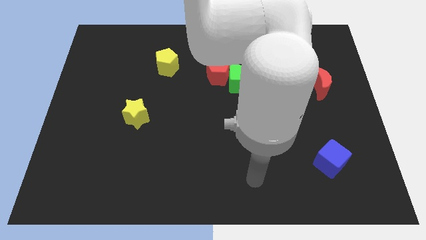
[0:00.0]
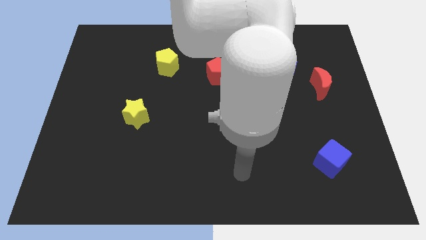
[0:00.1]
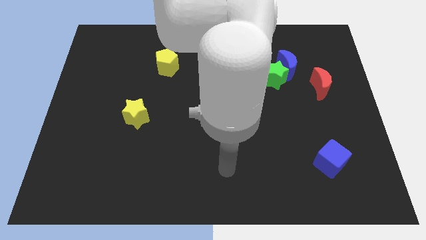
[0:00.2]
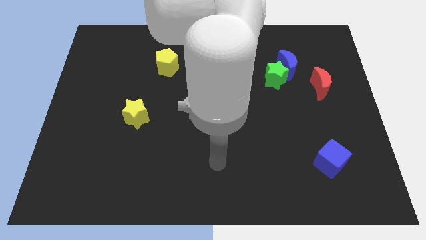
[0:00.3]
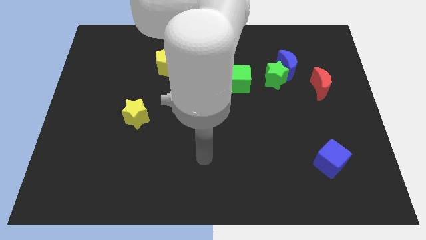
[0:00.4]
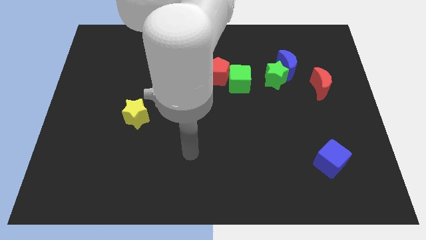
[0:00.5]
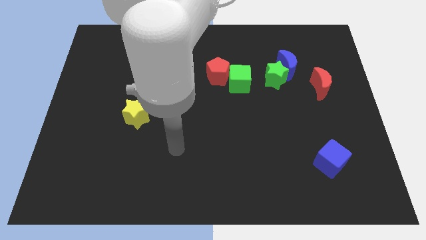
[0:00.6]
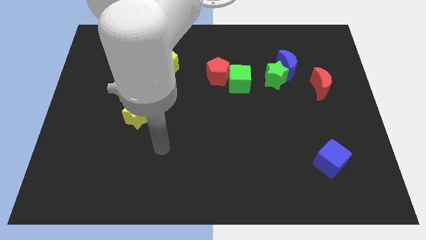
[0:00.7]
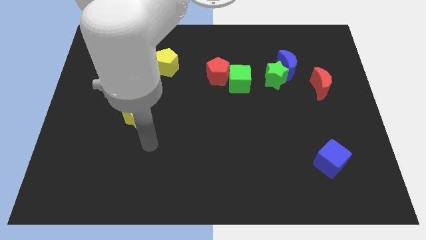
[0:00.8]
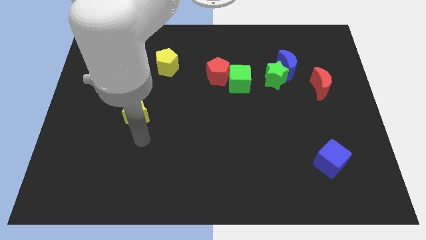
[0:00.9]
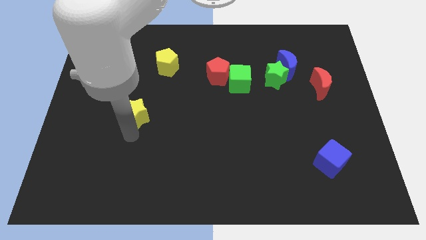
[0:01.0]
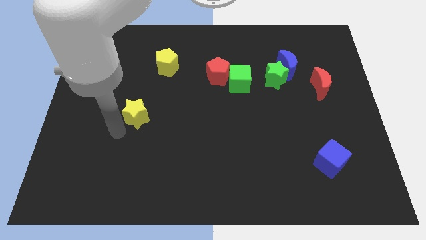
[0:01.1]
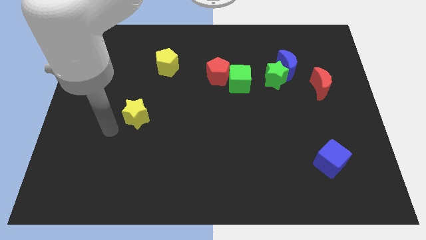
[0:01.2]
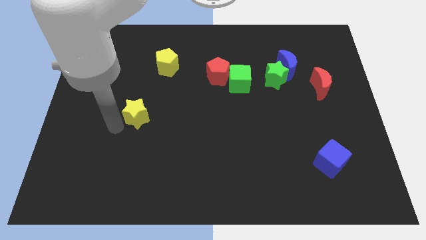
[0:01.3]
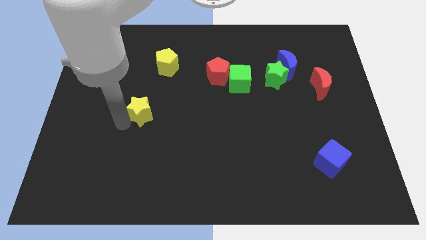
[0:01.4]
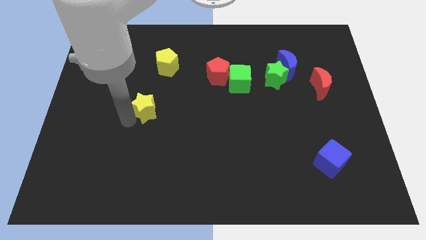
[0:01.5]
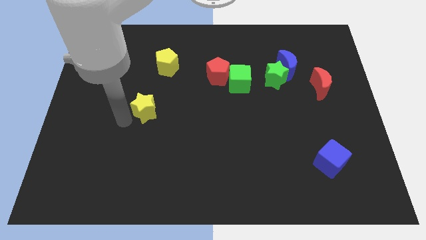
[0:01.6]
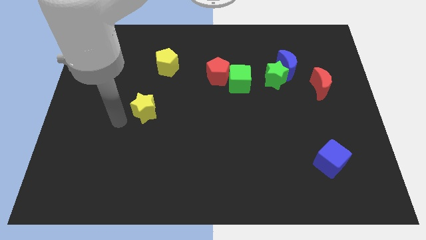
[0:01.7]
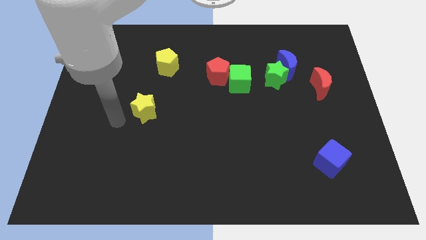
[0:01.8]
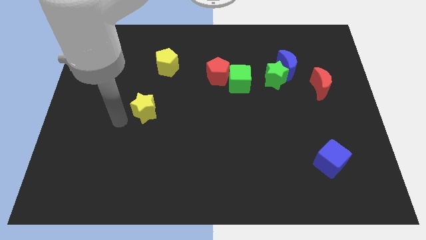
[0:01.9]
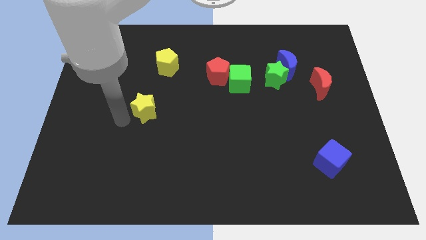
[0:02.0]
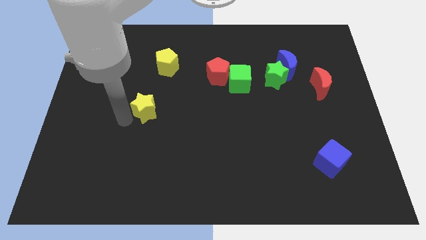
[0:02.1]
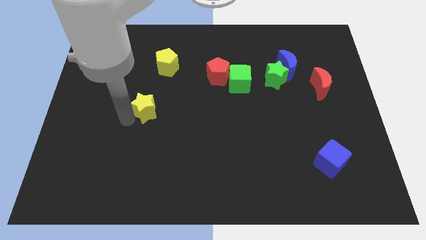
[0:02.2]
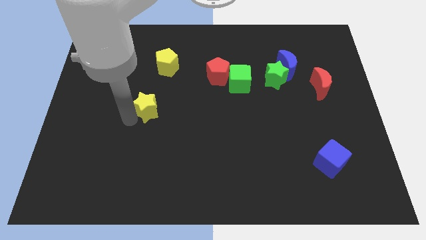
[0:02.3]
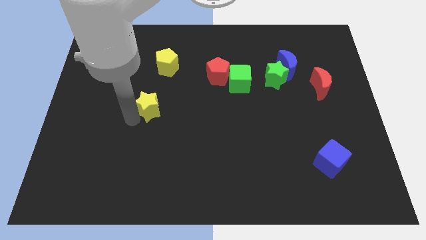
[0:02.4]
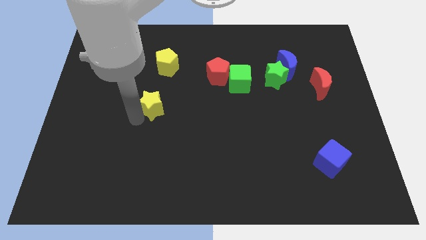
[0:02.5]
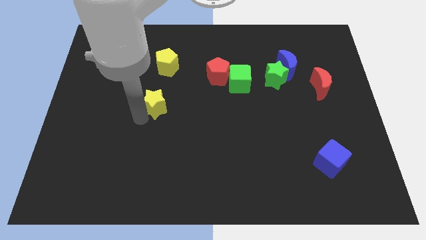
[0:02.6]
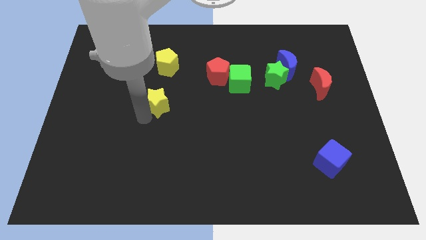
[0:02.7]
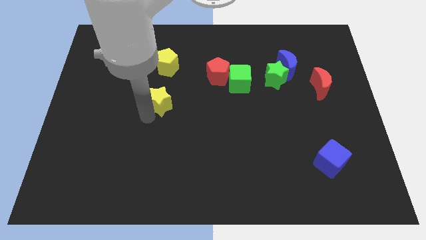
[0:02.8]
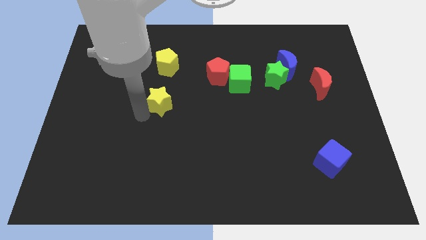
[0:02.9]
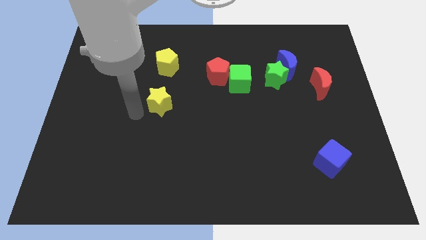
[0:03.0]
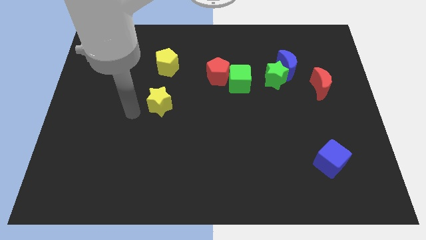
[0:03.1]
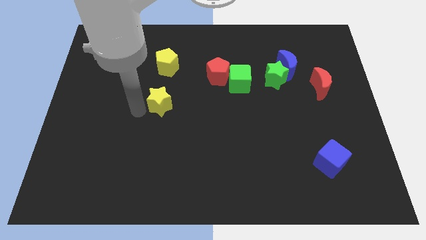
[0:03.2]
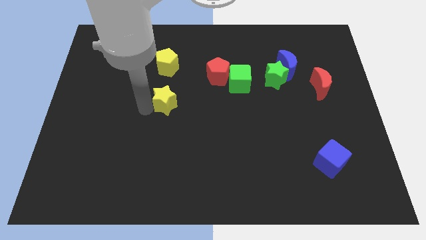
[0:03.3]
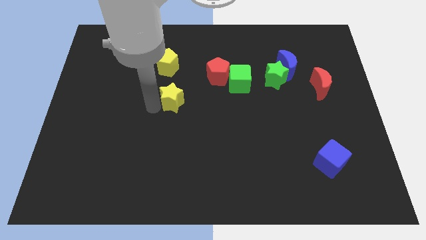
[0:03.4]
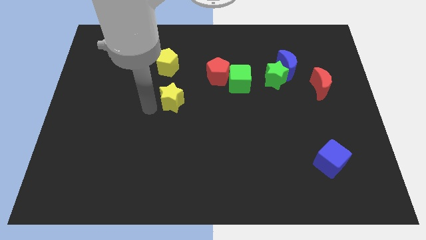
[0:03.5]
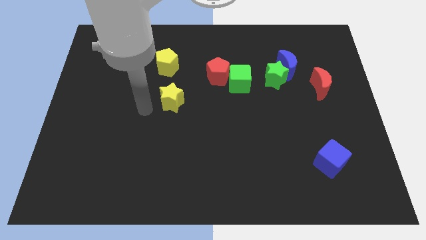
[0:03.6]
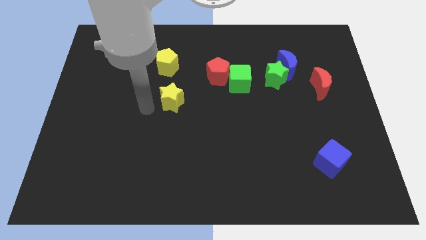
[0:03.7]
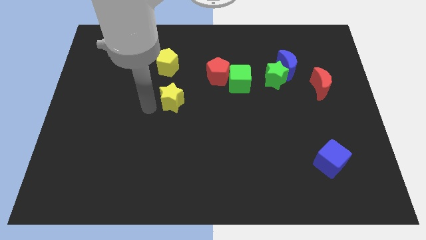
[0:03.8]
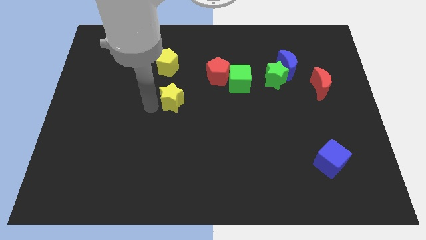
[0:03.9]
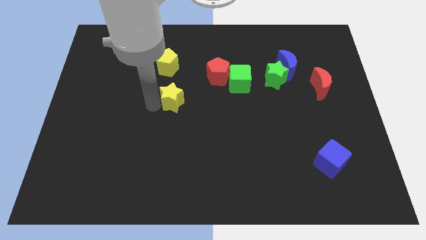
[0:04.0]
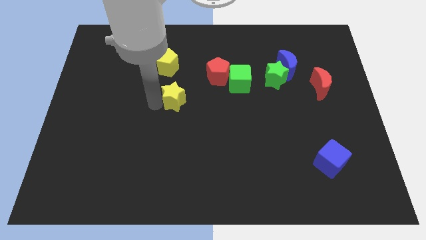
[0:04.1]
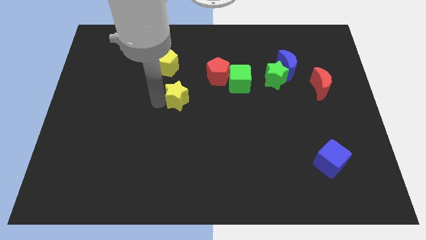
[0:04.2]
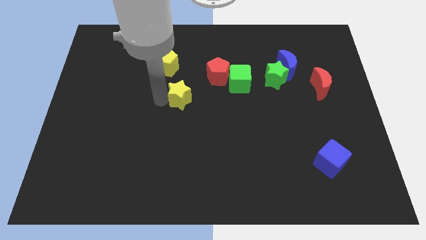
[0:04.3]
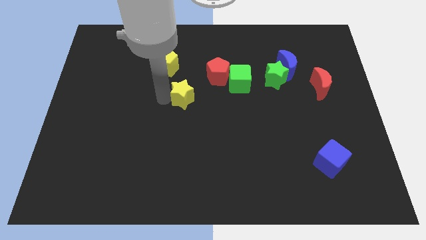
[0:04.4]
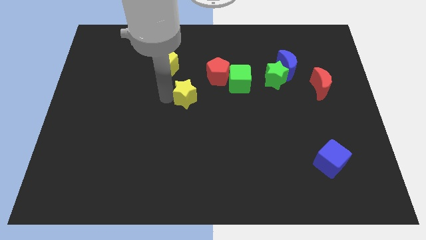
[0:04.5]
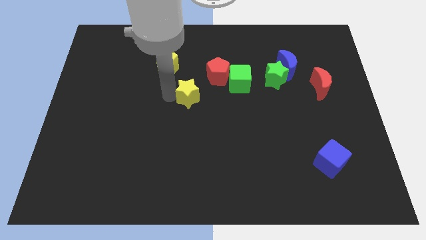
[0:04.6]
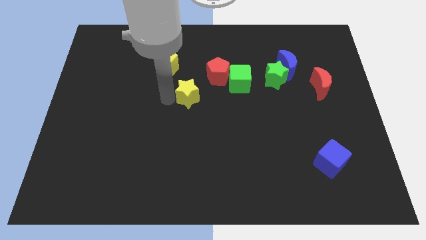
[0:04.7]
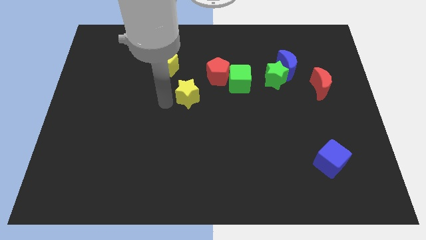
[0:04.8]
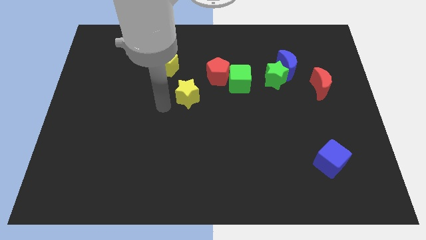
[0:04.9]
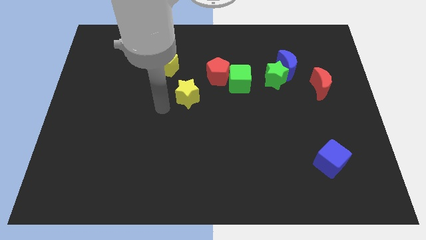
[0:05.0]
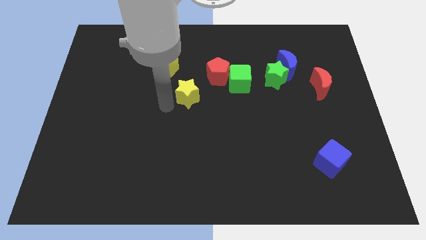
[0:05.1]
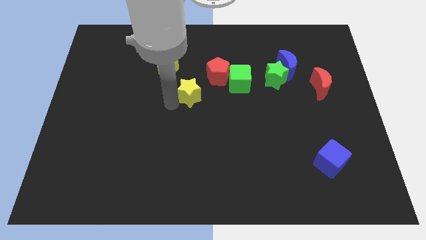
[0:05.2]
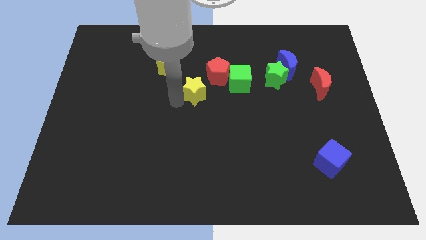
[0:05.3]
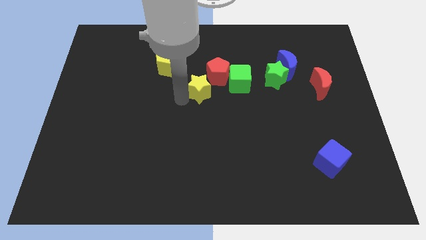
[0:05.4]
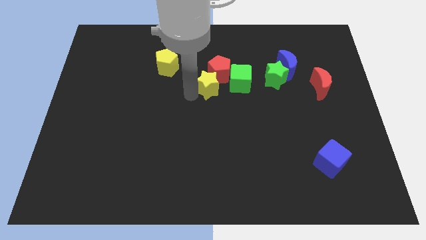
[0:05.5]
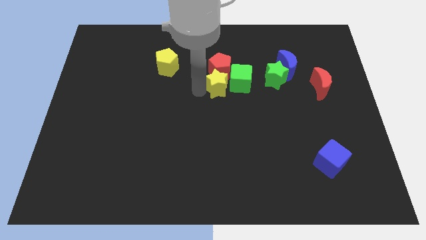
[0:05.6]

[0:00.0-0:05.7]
put the yellow star towards the green cube

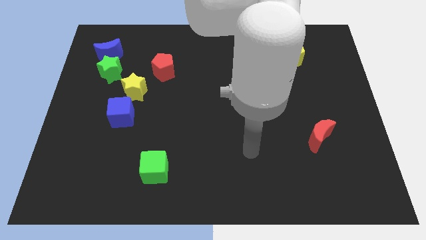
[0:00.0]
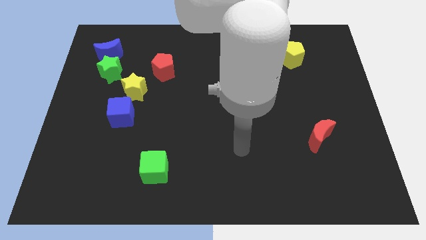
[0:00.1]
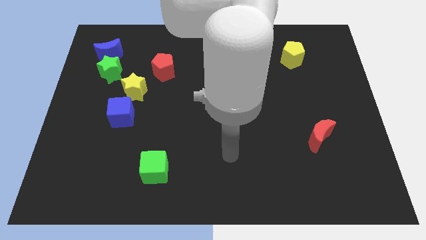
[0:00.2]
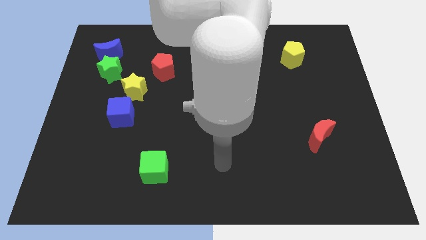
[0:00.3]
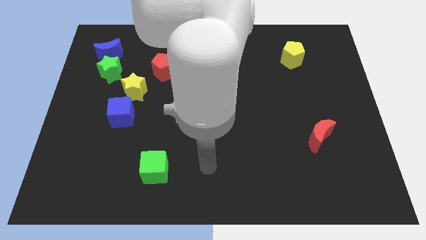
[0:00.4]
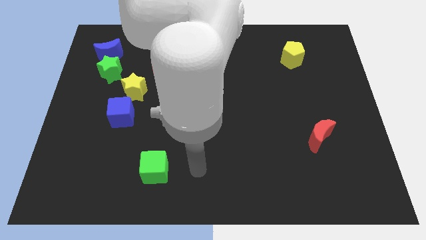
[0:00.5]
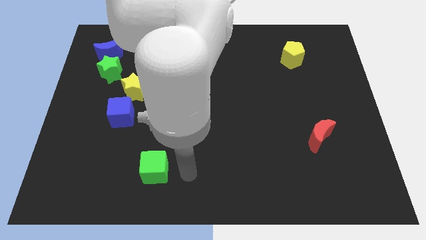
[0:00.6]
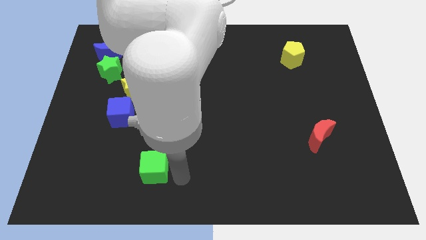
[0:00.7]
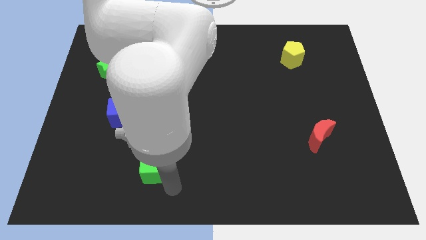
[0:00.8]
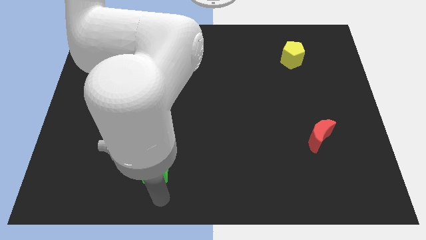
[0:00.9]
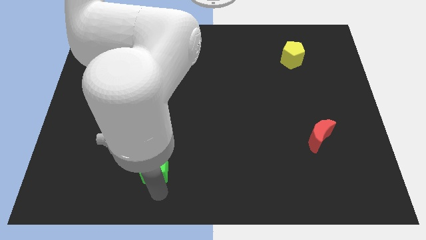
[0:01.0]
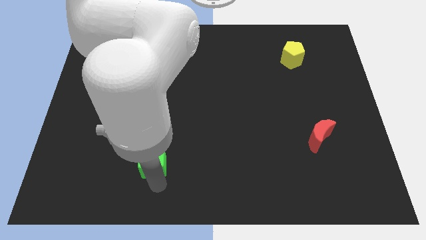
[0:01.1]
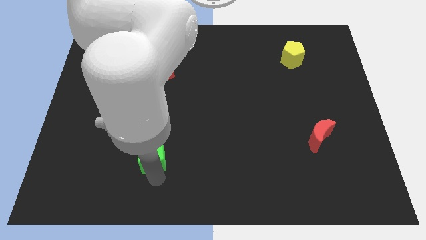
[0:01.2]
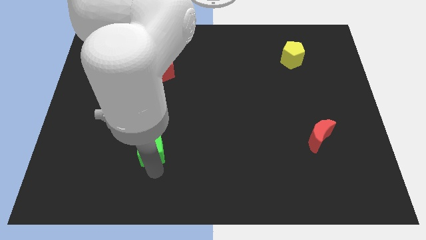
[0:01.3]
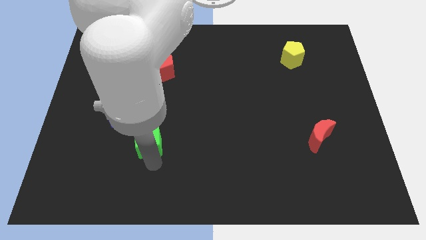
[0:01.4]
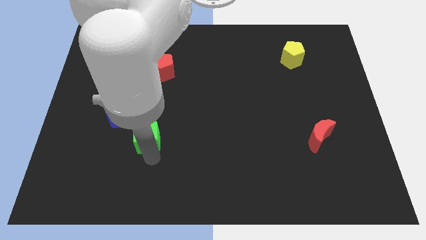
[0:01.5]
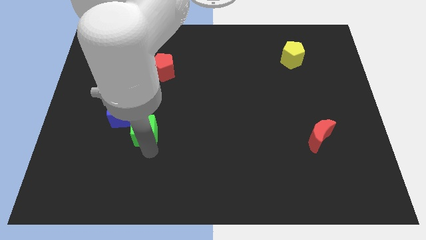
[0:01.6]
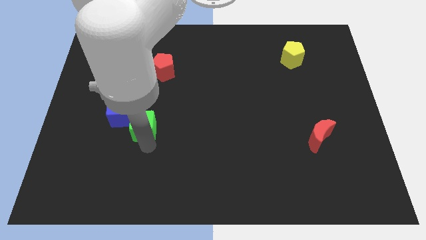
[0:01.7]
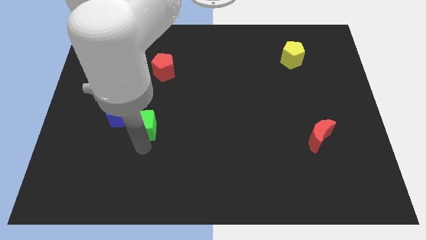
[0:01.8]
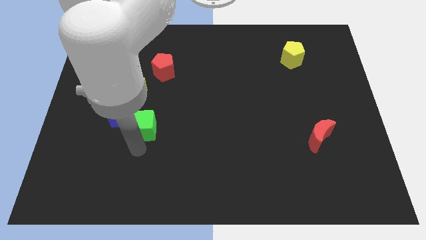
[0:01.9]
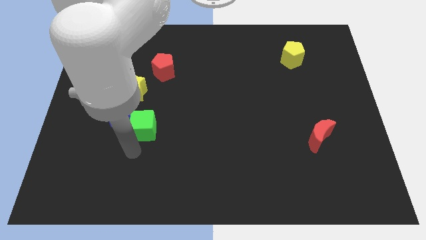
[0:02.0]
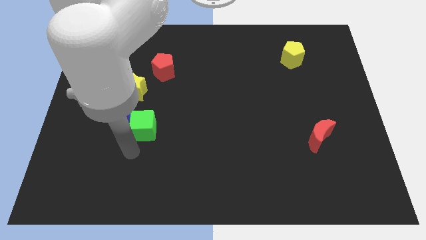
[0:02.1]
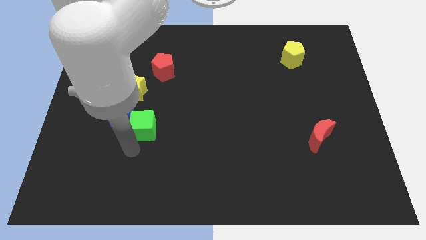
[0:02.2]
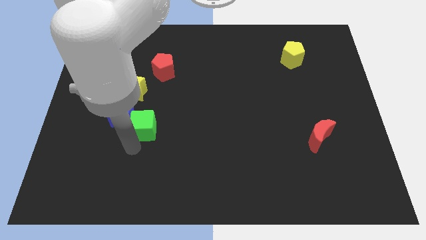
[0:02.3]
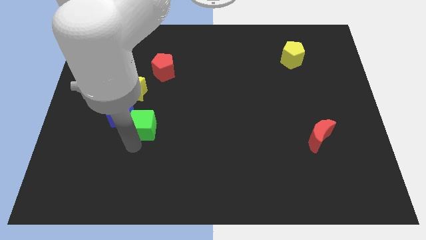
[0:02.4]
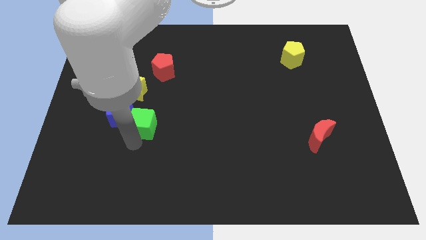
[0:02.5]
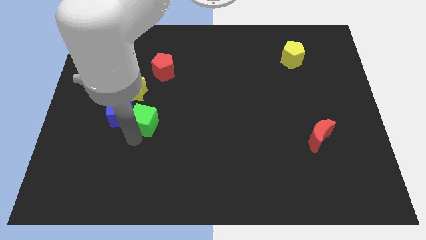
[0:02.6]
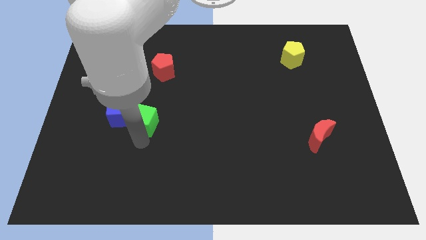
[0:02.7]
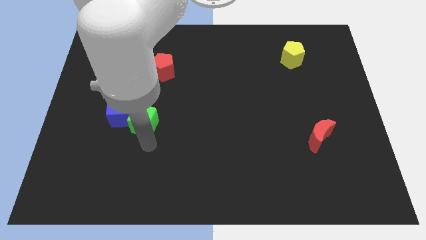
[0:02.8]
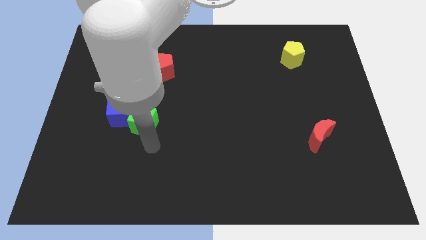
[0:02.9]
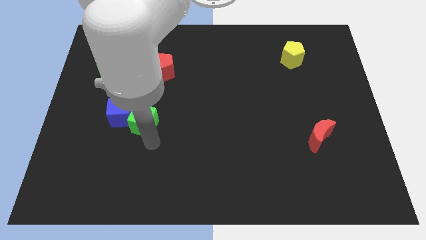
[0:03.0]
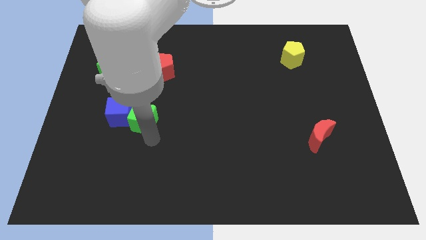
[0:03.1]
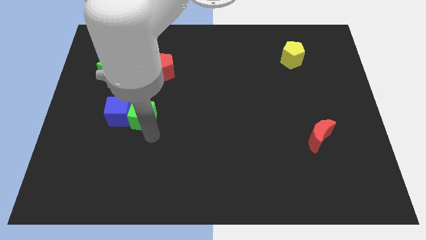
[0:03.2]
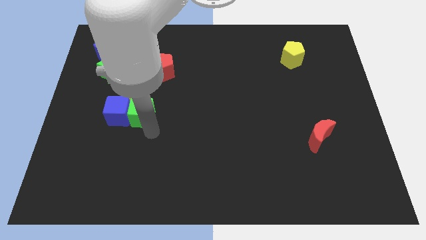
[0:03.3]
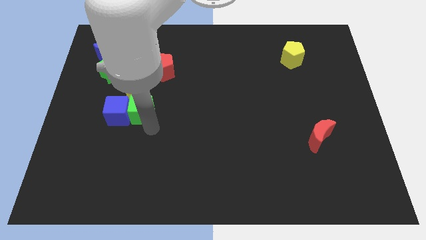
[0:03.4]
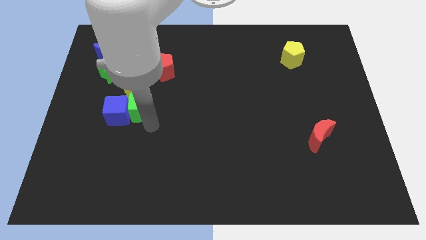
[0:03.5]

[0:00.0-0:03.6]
move the green cube towards the yellow star
